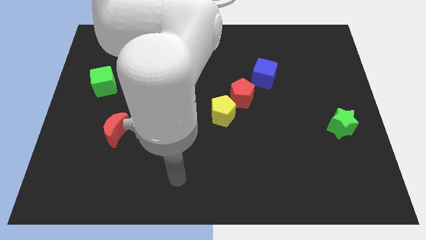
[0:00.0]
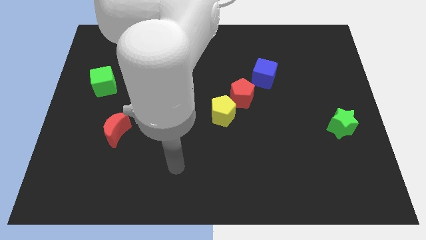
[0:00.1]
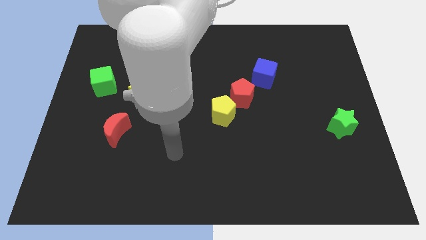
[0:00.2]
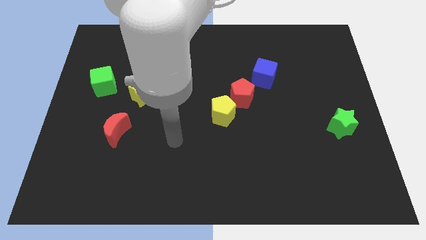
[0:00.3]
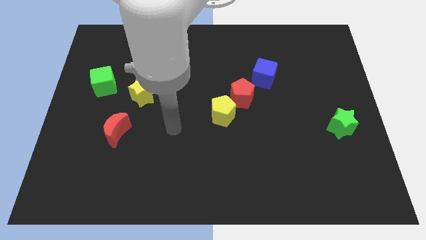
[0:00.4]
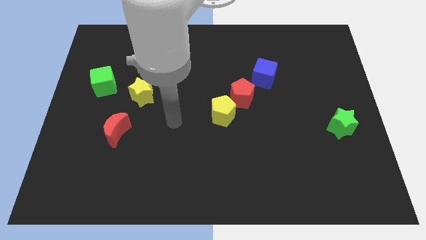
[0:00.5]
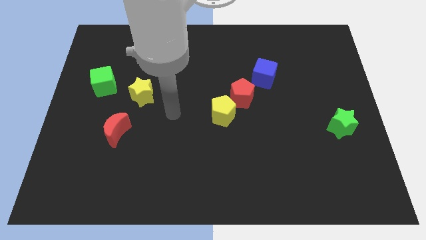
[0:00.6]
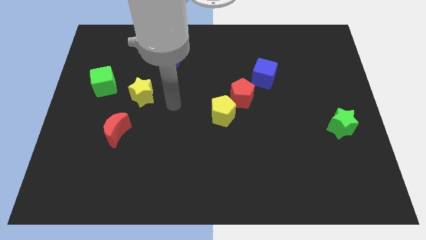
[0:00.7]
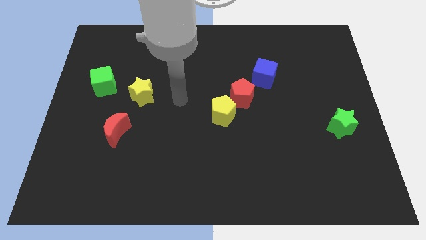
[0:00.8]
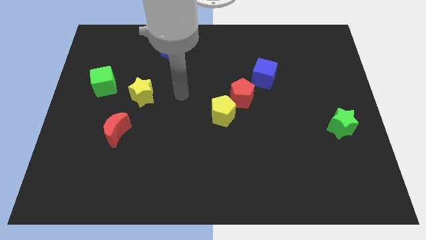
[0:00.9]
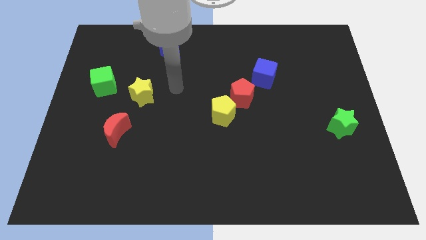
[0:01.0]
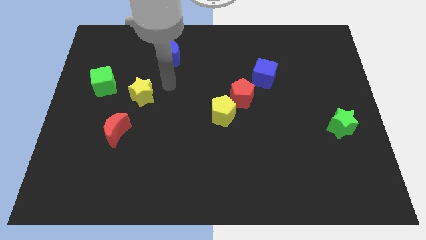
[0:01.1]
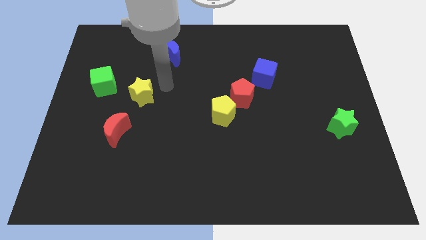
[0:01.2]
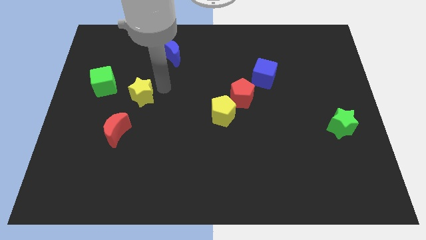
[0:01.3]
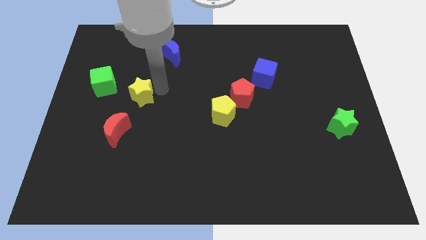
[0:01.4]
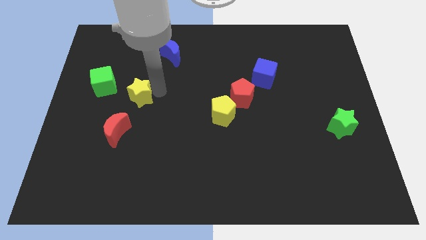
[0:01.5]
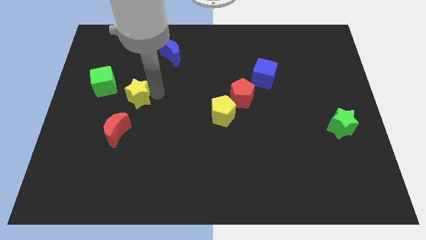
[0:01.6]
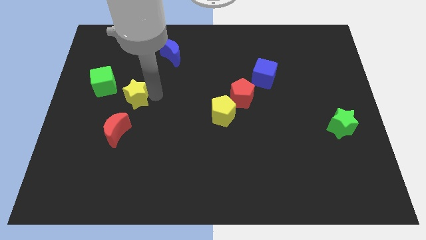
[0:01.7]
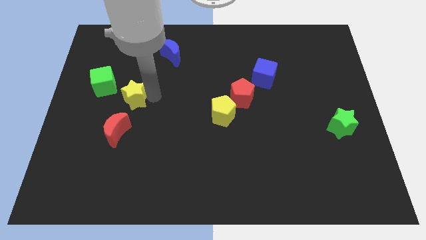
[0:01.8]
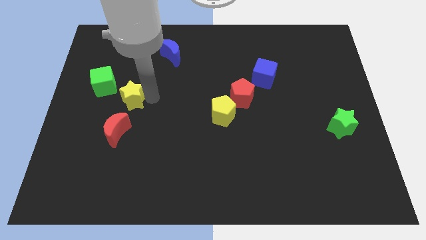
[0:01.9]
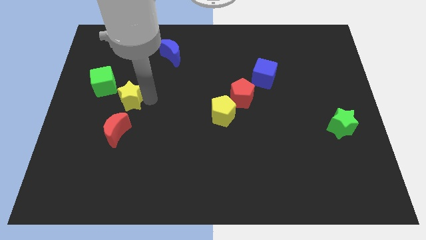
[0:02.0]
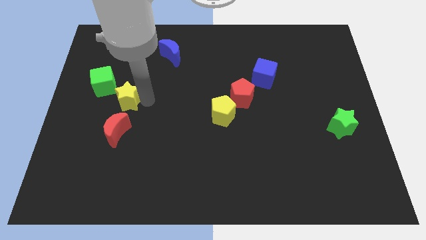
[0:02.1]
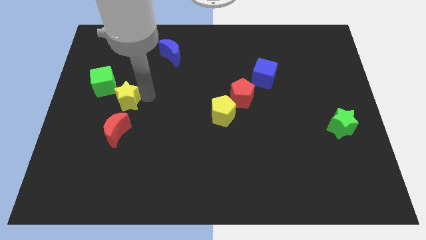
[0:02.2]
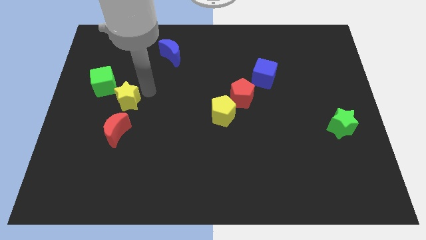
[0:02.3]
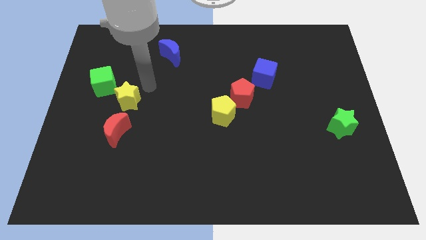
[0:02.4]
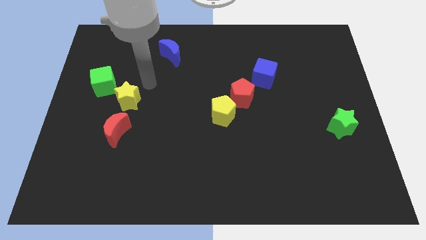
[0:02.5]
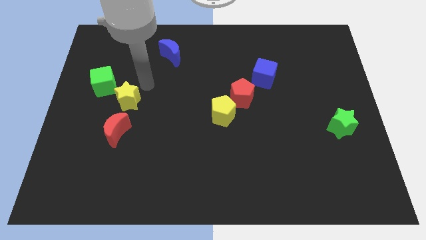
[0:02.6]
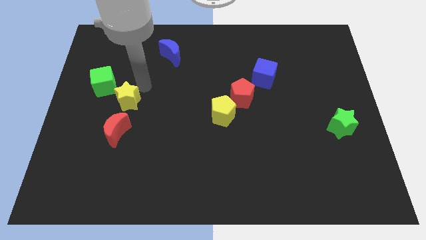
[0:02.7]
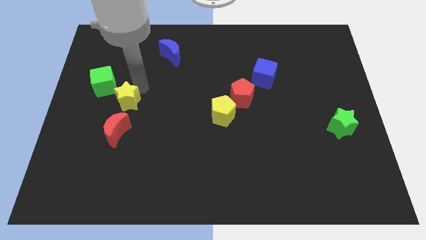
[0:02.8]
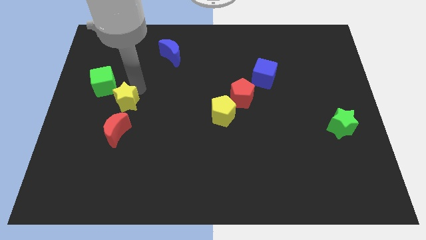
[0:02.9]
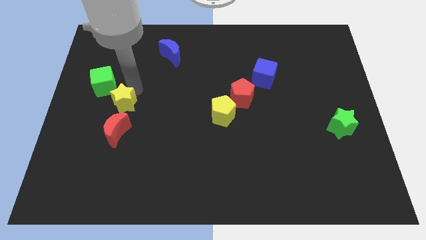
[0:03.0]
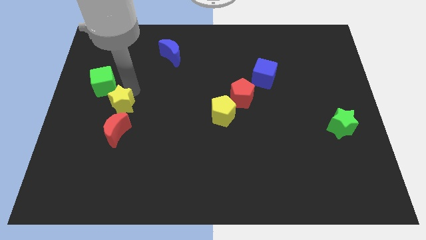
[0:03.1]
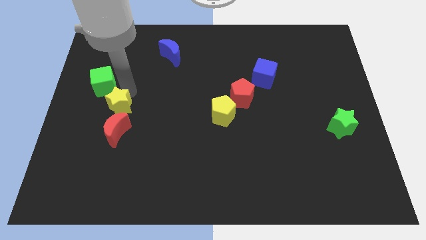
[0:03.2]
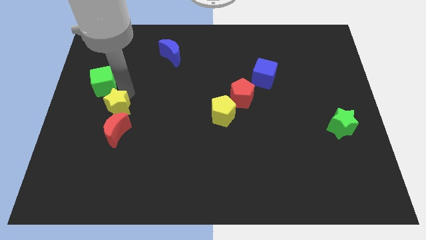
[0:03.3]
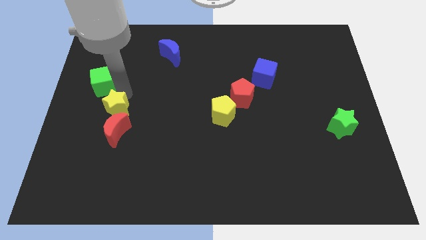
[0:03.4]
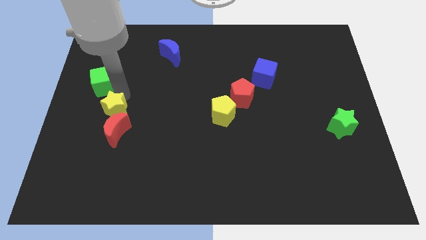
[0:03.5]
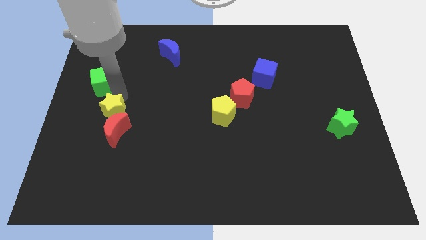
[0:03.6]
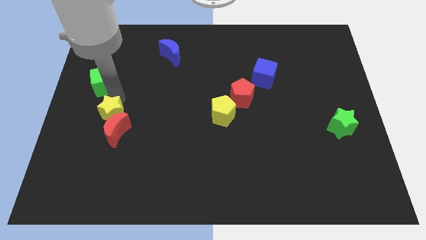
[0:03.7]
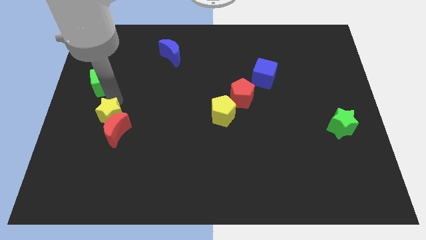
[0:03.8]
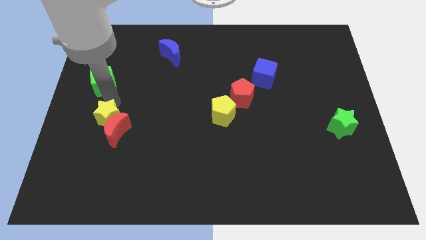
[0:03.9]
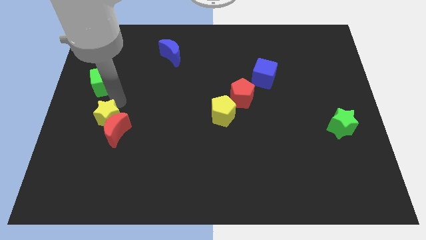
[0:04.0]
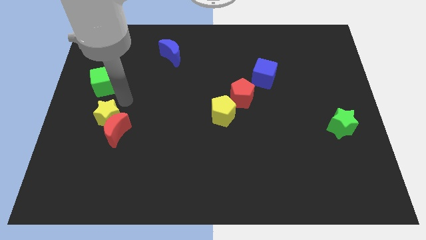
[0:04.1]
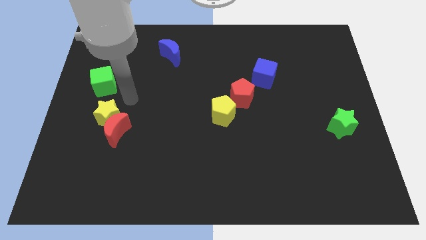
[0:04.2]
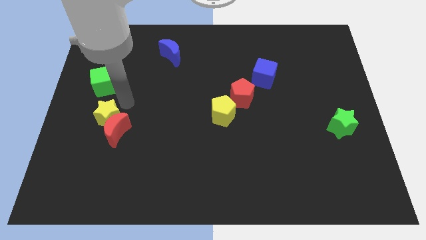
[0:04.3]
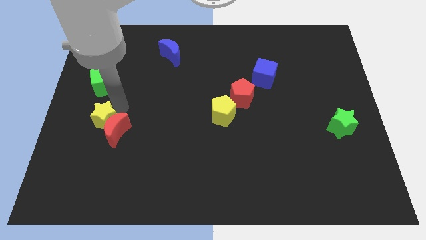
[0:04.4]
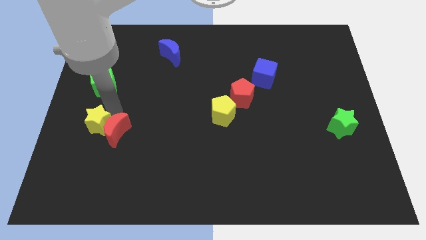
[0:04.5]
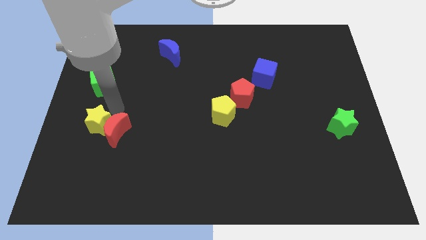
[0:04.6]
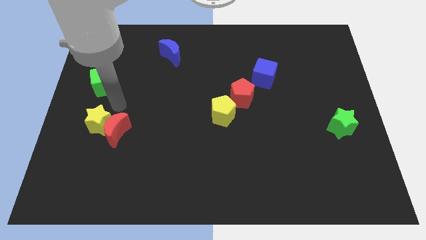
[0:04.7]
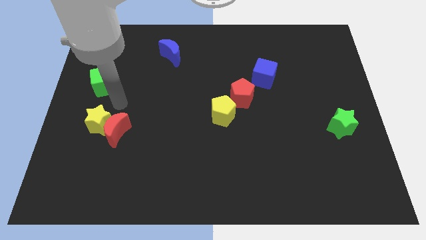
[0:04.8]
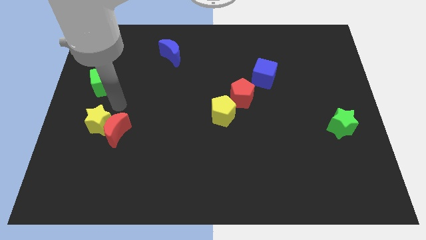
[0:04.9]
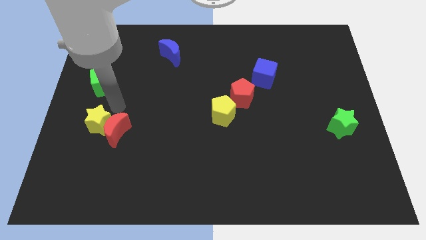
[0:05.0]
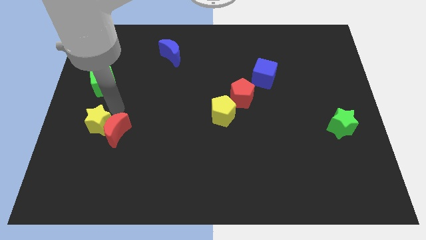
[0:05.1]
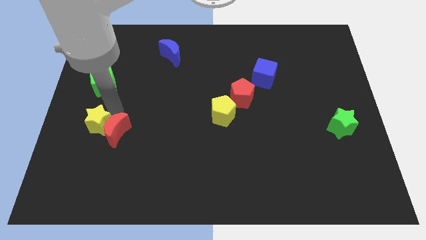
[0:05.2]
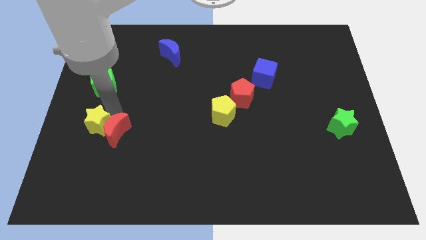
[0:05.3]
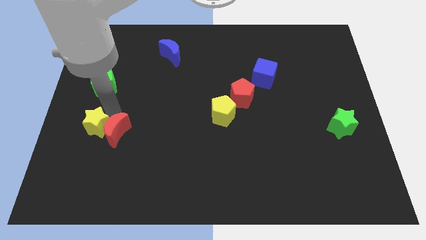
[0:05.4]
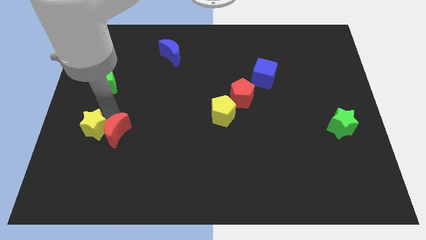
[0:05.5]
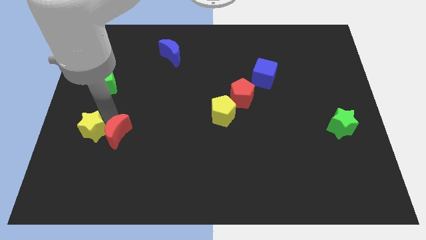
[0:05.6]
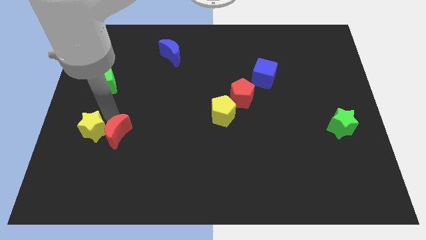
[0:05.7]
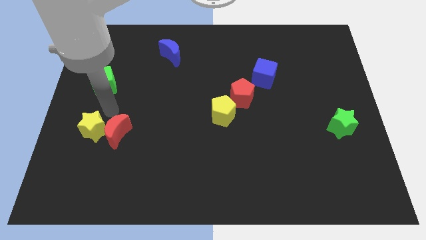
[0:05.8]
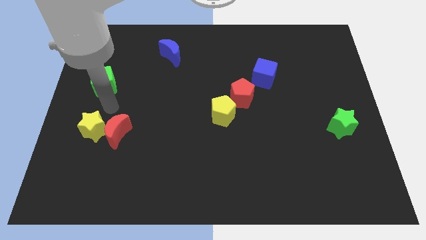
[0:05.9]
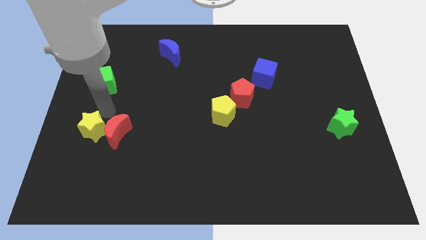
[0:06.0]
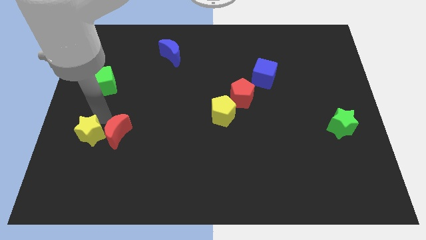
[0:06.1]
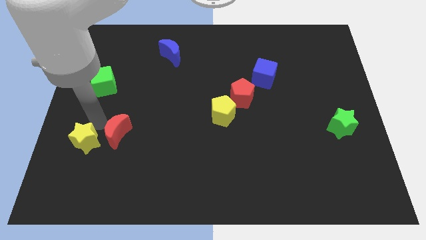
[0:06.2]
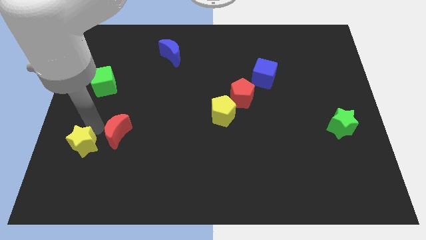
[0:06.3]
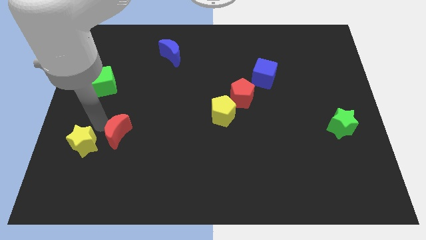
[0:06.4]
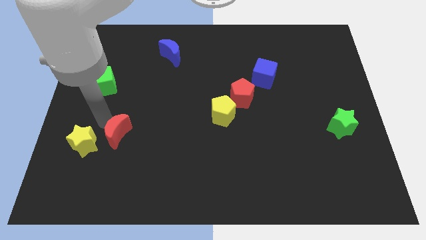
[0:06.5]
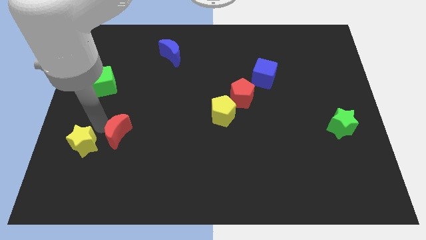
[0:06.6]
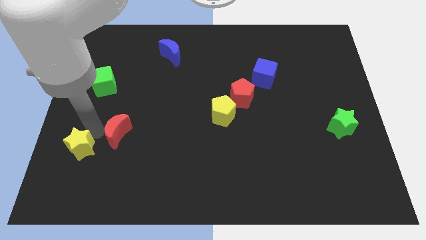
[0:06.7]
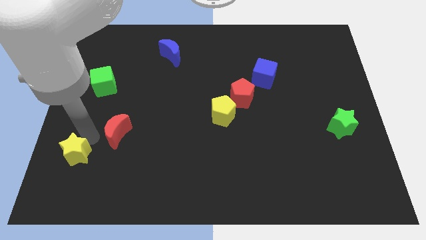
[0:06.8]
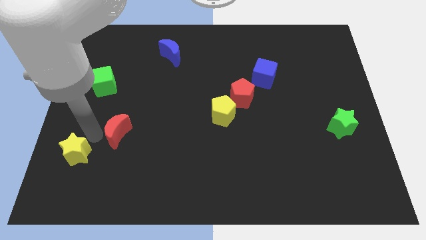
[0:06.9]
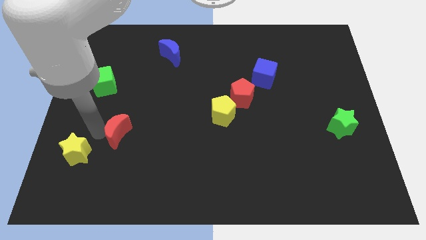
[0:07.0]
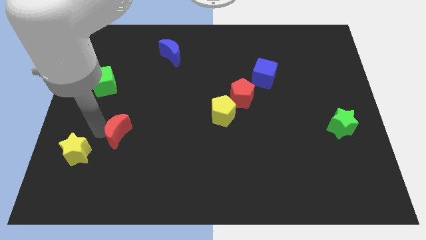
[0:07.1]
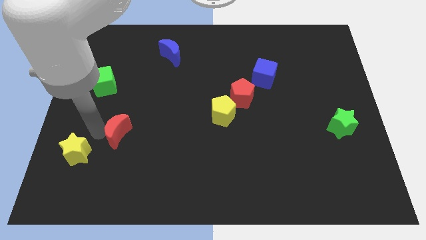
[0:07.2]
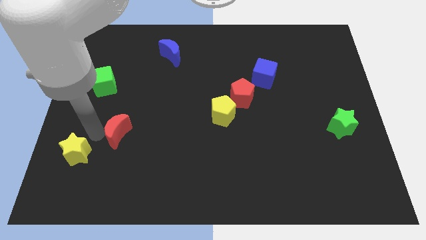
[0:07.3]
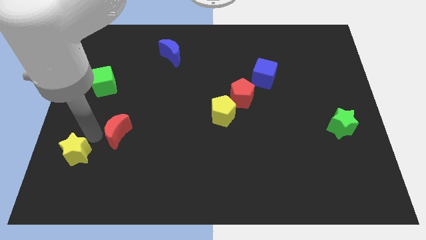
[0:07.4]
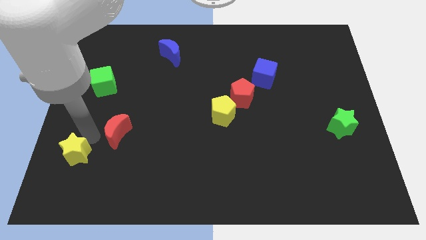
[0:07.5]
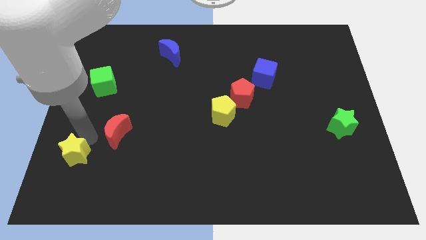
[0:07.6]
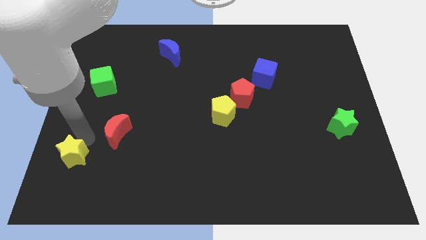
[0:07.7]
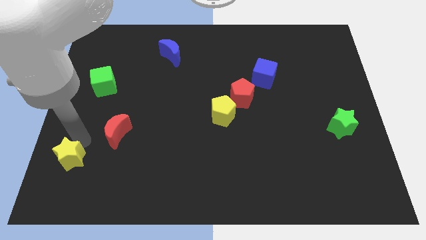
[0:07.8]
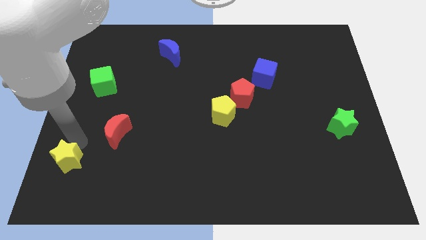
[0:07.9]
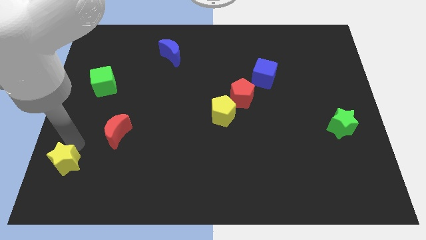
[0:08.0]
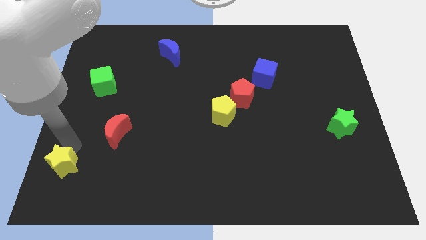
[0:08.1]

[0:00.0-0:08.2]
put the yellow star to the bottom left
